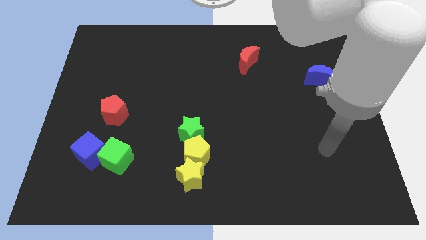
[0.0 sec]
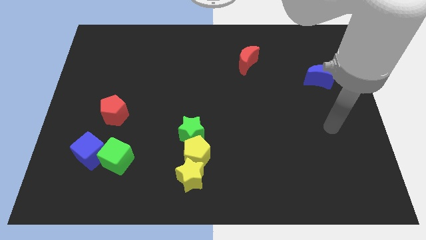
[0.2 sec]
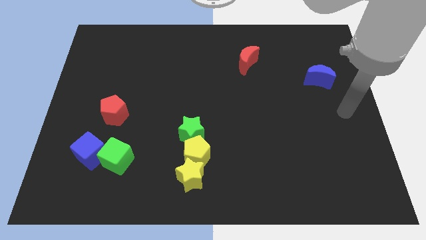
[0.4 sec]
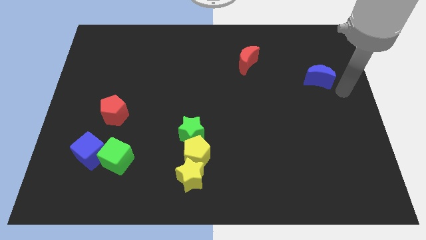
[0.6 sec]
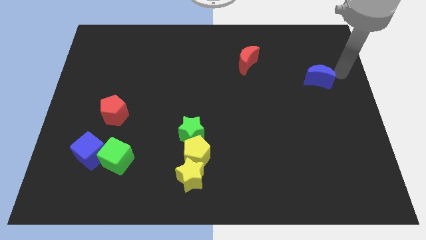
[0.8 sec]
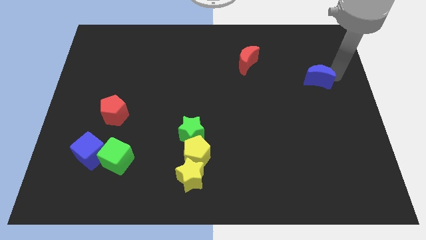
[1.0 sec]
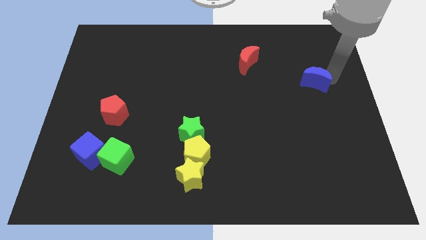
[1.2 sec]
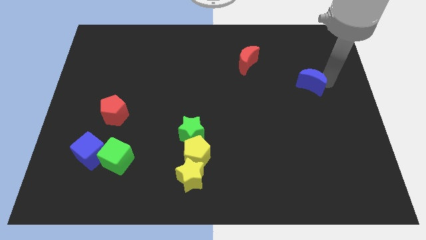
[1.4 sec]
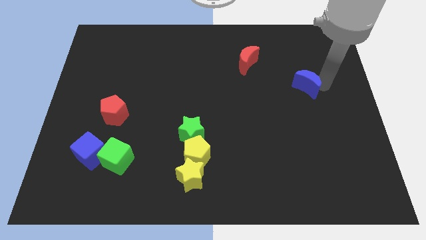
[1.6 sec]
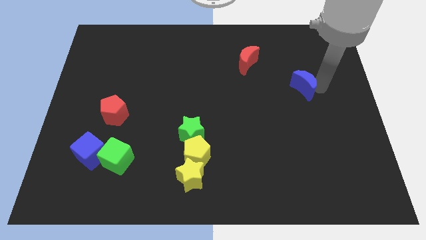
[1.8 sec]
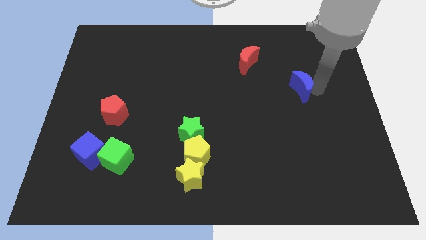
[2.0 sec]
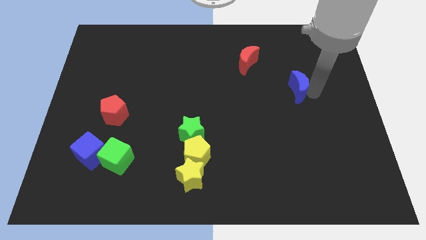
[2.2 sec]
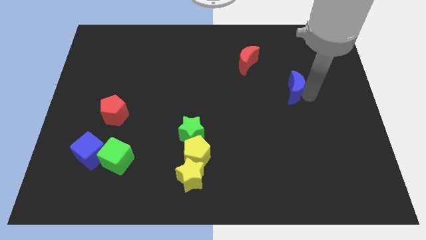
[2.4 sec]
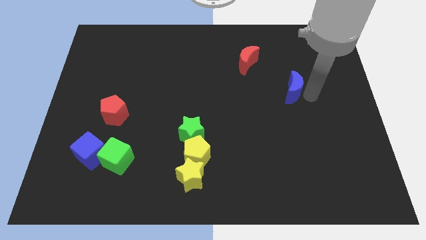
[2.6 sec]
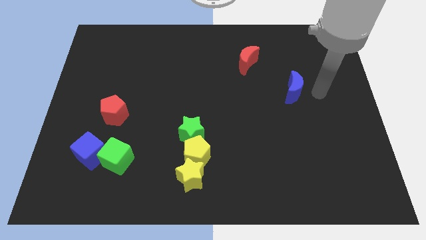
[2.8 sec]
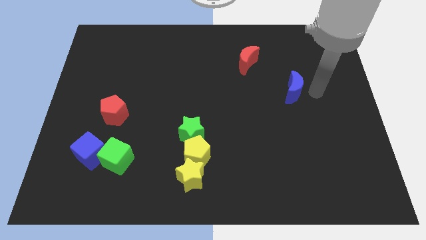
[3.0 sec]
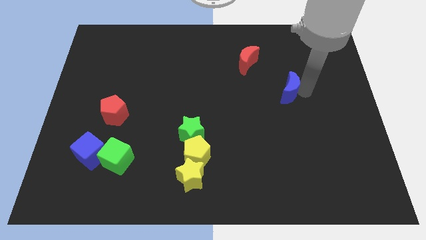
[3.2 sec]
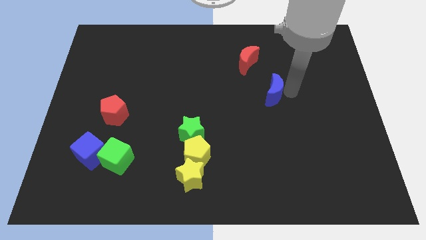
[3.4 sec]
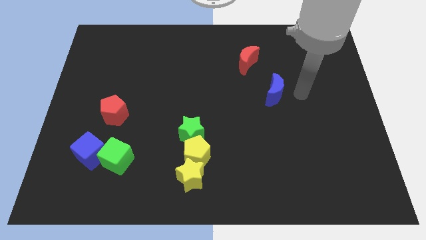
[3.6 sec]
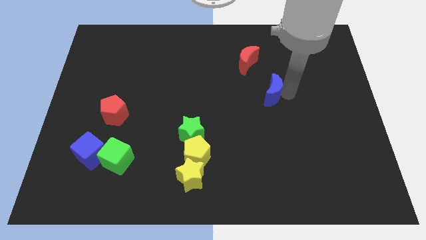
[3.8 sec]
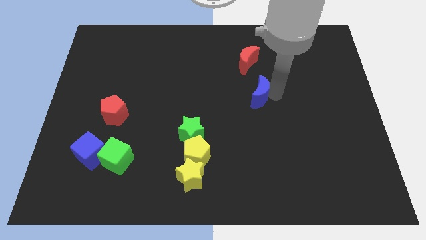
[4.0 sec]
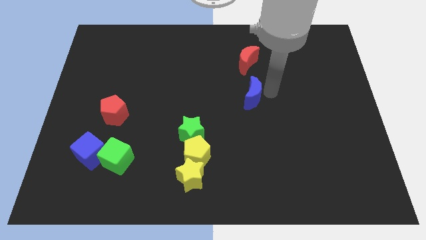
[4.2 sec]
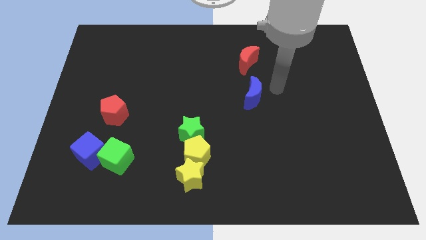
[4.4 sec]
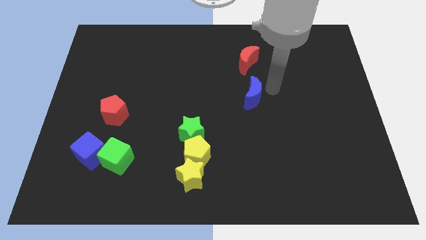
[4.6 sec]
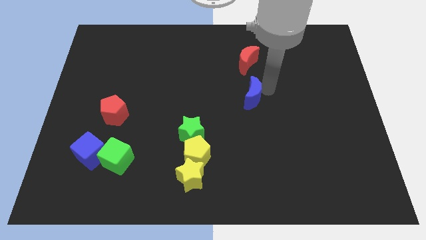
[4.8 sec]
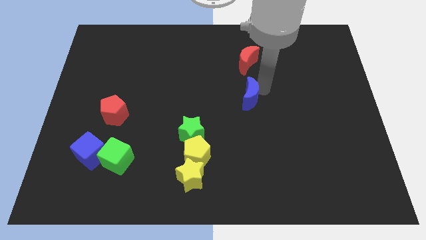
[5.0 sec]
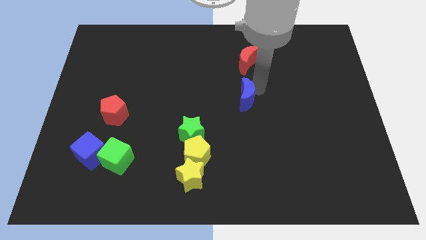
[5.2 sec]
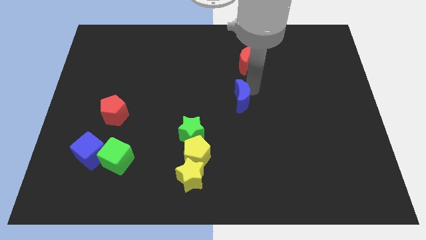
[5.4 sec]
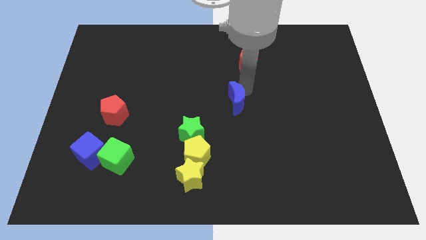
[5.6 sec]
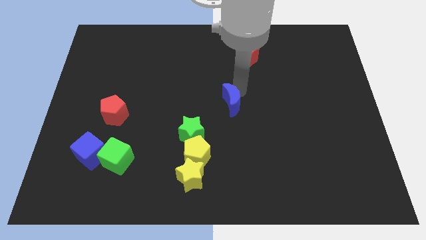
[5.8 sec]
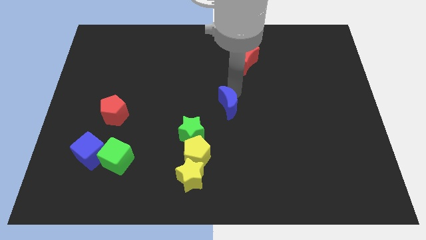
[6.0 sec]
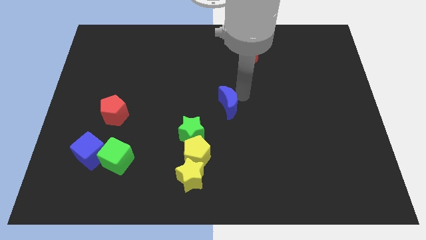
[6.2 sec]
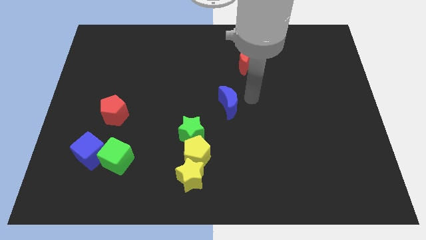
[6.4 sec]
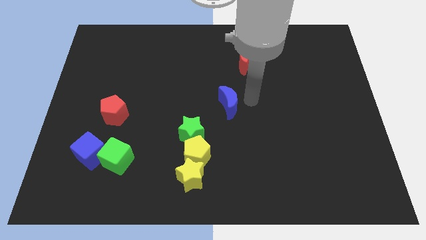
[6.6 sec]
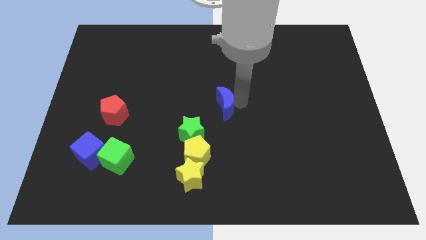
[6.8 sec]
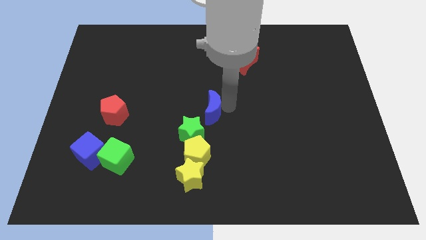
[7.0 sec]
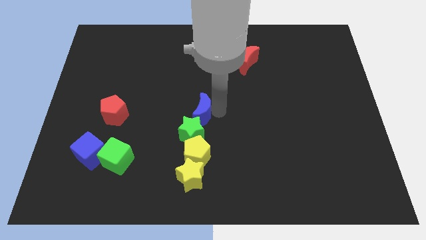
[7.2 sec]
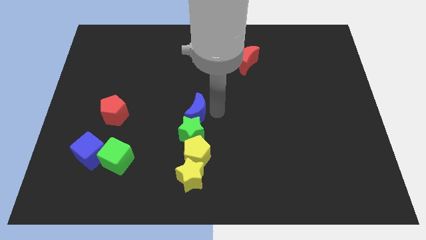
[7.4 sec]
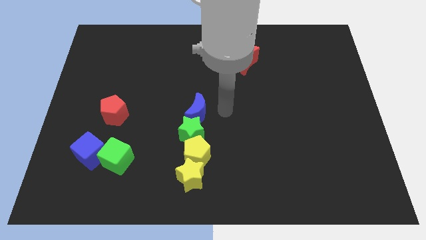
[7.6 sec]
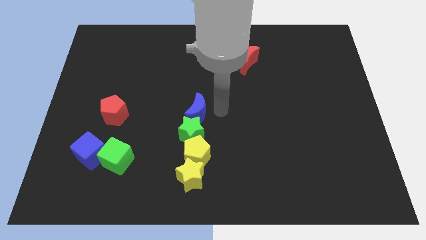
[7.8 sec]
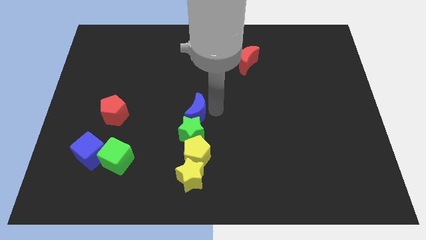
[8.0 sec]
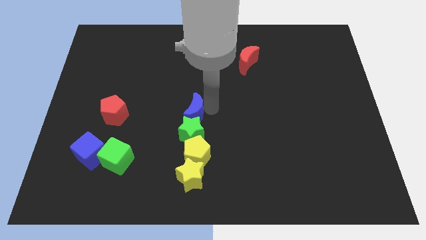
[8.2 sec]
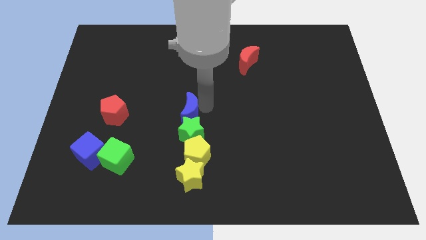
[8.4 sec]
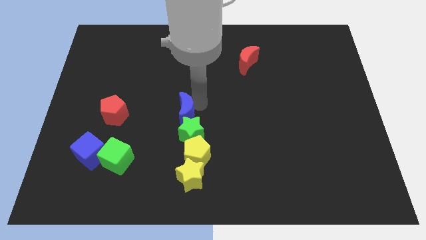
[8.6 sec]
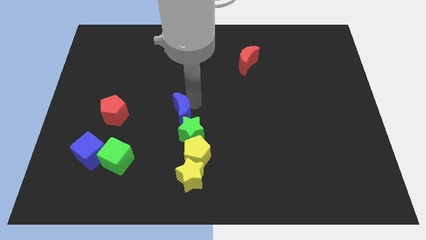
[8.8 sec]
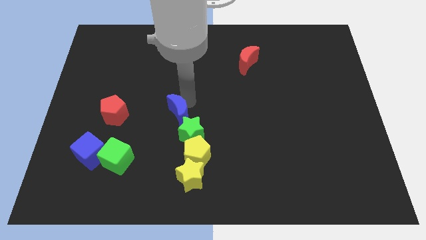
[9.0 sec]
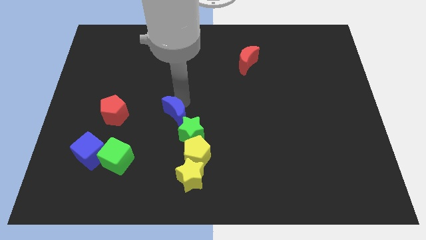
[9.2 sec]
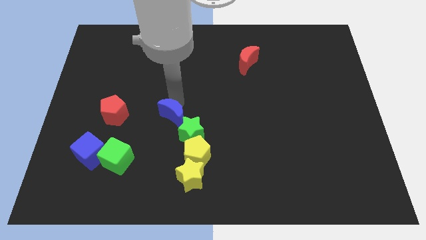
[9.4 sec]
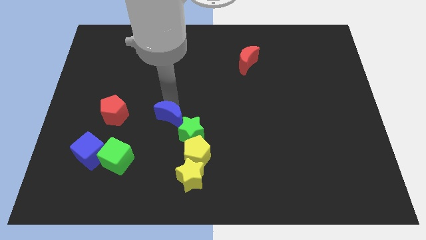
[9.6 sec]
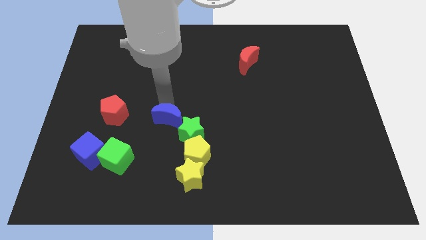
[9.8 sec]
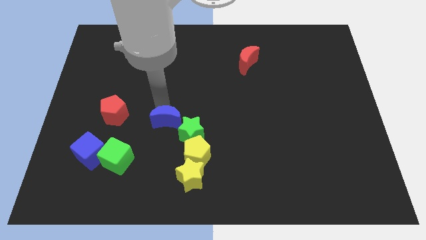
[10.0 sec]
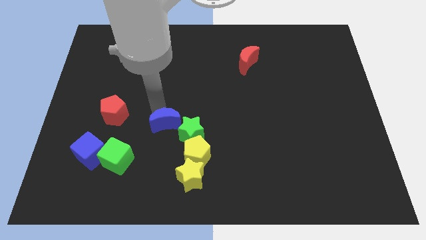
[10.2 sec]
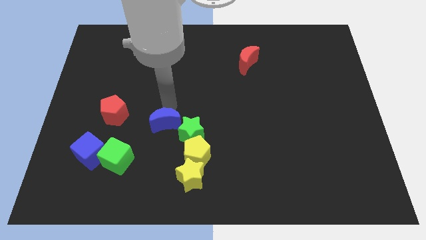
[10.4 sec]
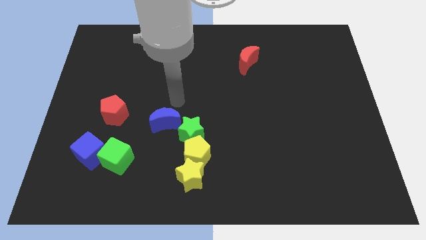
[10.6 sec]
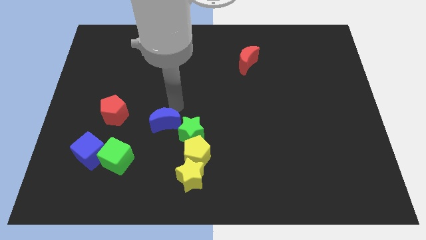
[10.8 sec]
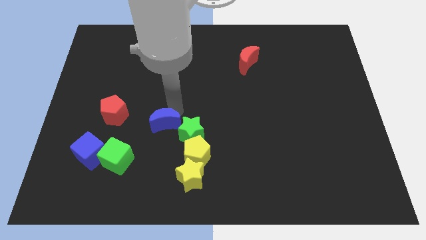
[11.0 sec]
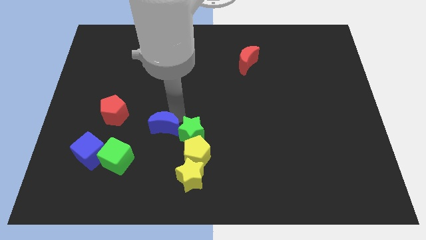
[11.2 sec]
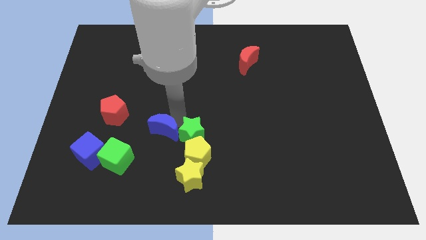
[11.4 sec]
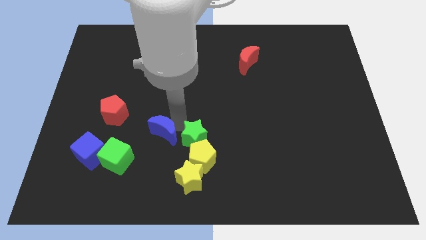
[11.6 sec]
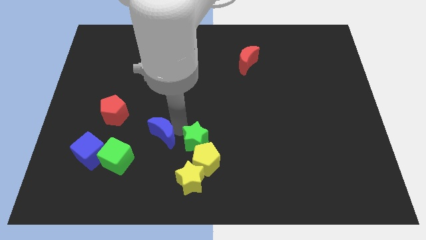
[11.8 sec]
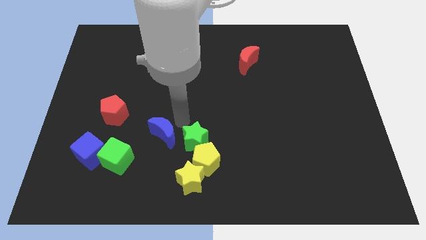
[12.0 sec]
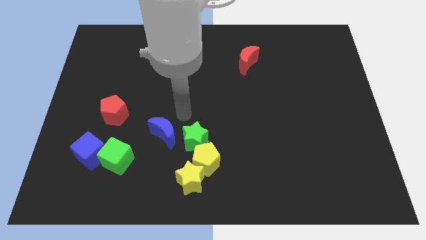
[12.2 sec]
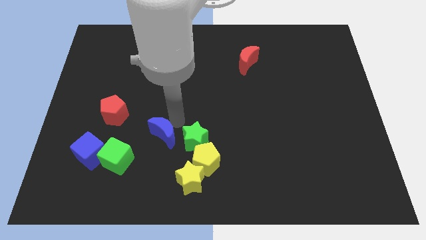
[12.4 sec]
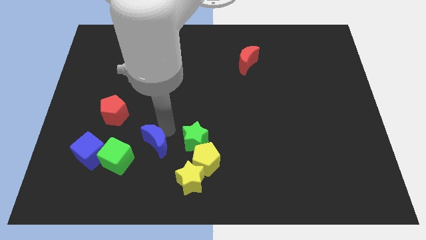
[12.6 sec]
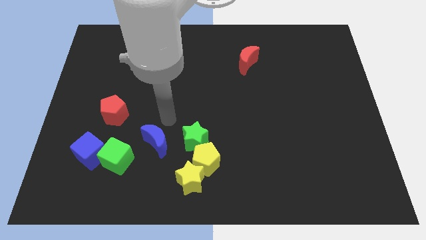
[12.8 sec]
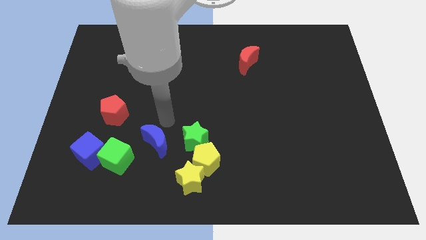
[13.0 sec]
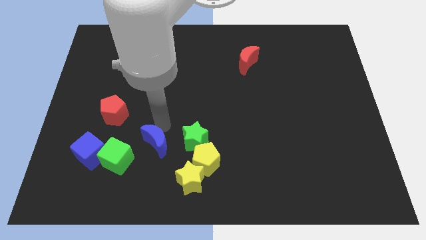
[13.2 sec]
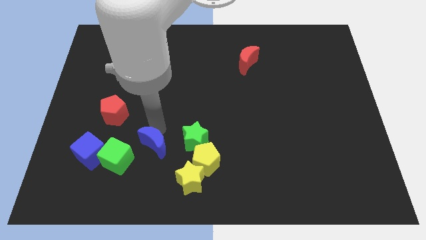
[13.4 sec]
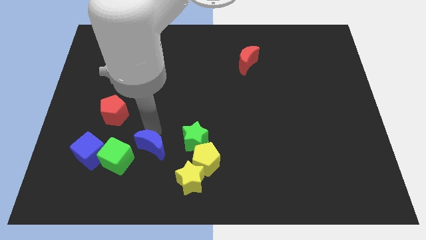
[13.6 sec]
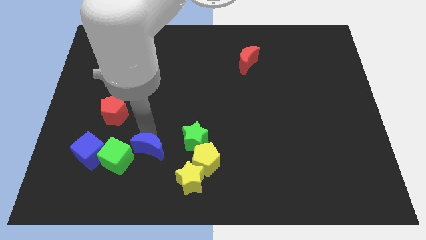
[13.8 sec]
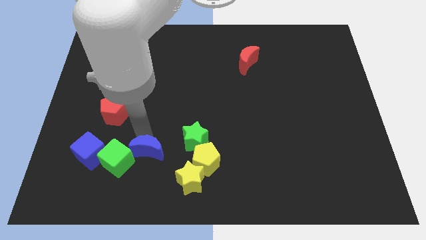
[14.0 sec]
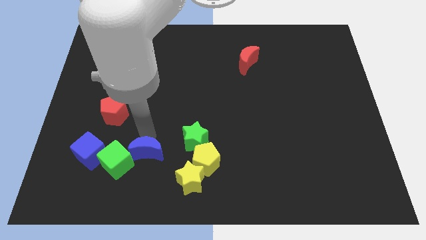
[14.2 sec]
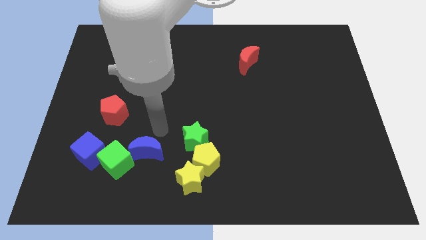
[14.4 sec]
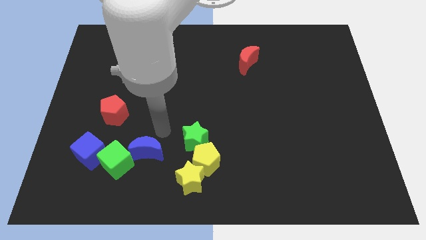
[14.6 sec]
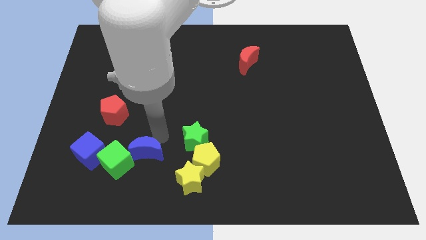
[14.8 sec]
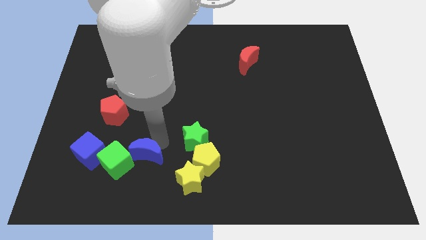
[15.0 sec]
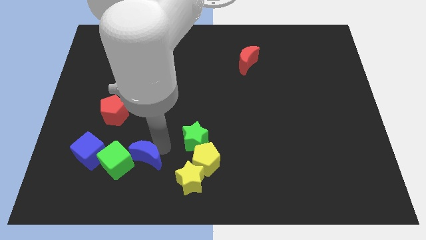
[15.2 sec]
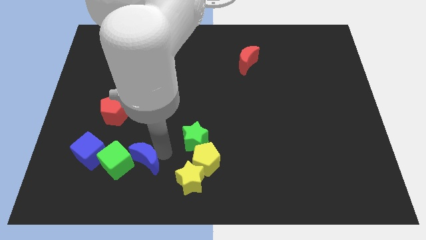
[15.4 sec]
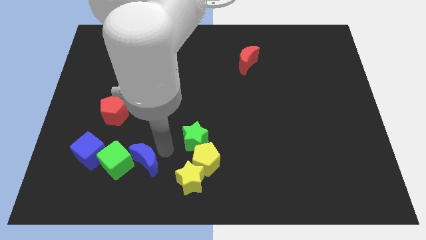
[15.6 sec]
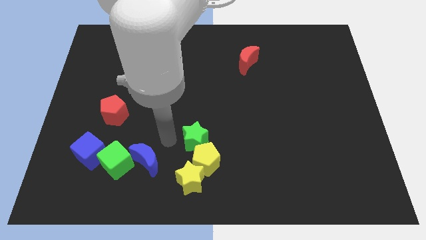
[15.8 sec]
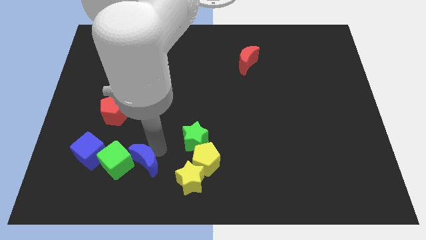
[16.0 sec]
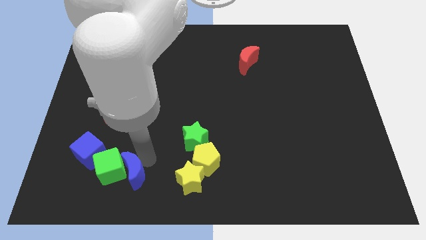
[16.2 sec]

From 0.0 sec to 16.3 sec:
push the blue moon diagonally down and to the right of the blue cube
